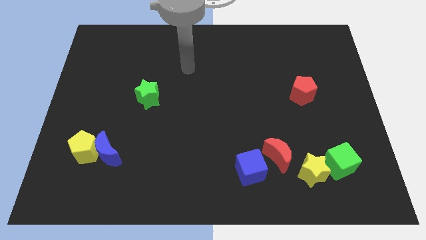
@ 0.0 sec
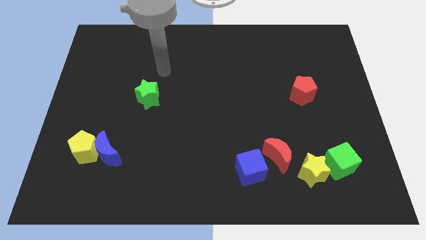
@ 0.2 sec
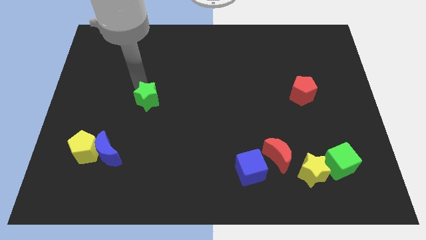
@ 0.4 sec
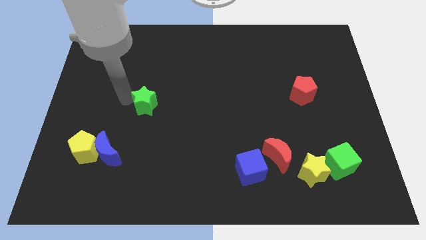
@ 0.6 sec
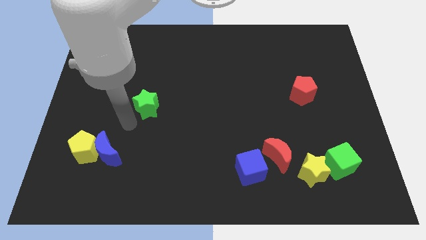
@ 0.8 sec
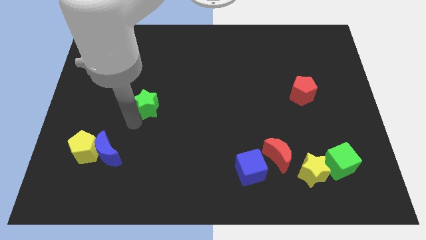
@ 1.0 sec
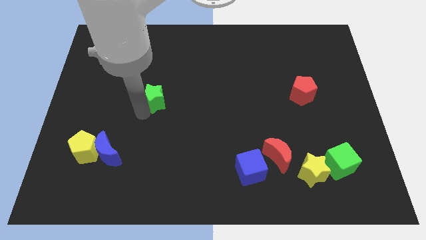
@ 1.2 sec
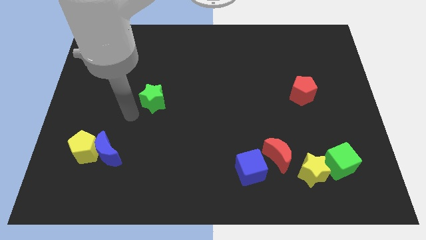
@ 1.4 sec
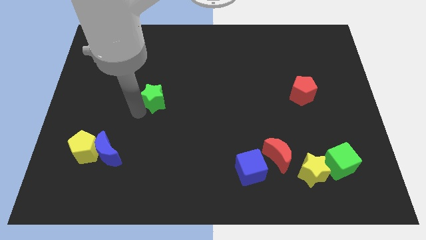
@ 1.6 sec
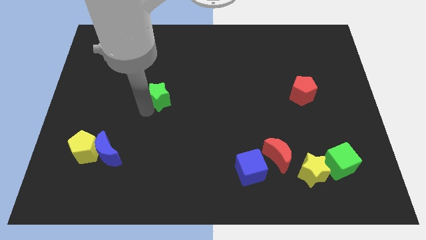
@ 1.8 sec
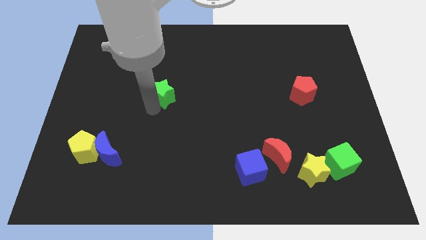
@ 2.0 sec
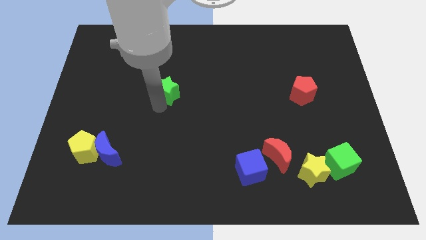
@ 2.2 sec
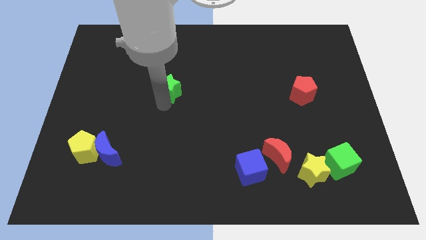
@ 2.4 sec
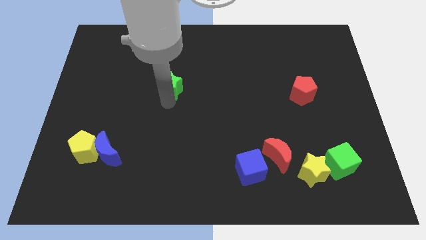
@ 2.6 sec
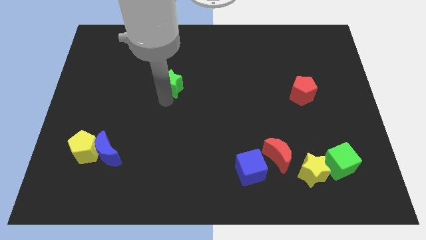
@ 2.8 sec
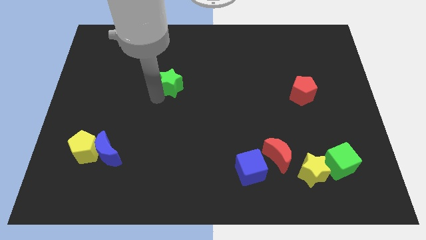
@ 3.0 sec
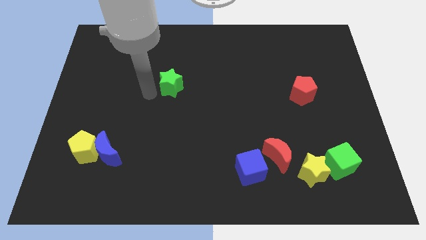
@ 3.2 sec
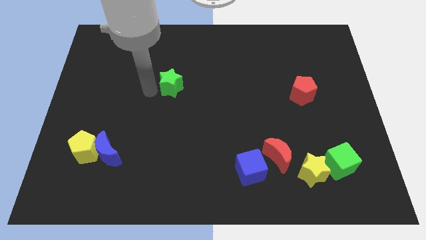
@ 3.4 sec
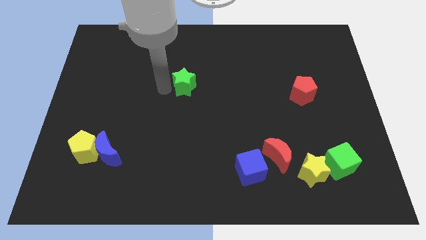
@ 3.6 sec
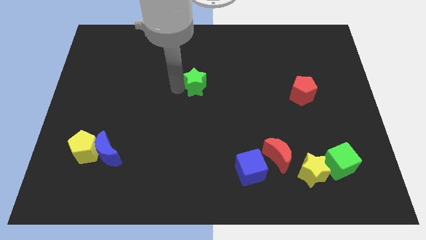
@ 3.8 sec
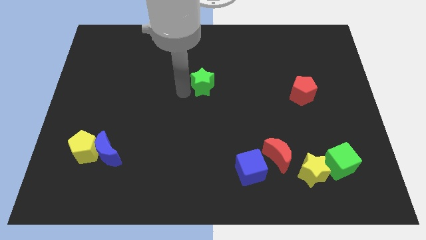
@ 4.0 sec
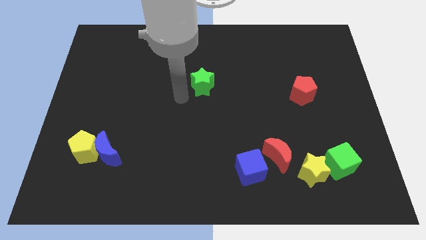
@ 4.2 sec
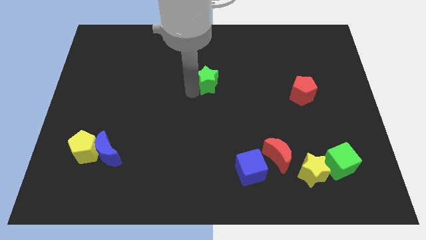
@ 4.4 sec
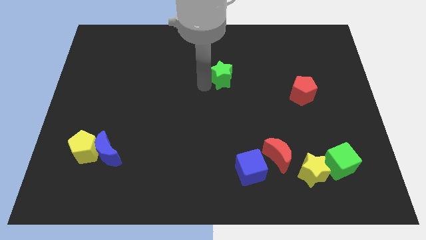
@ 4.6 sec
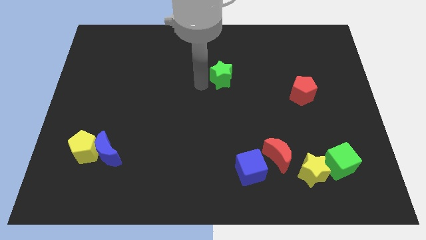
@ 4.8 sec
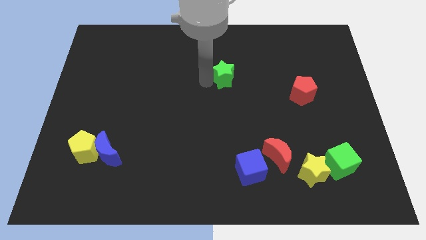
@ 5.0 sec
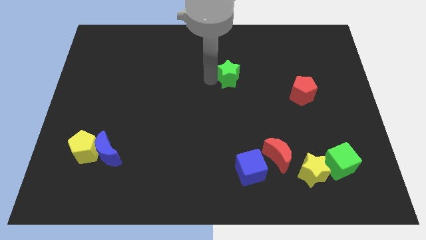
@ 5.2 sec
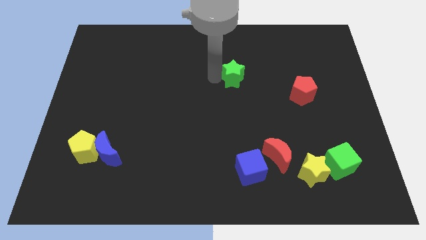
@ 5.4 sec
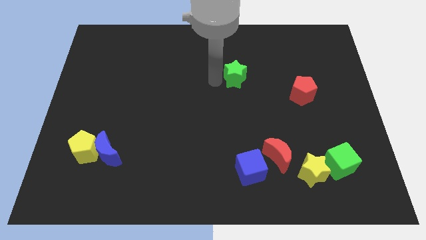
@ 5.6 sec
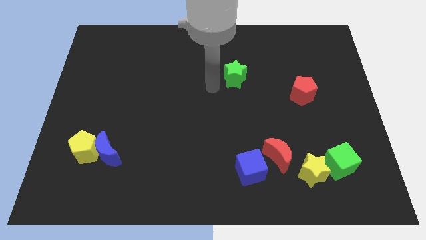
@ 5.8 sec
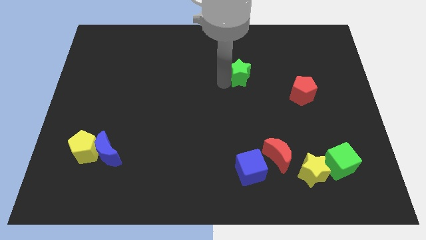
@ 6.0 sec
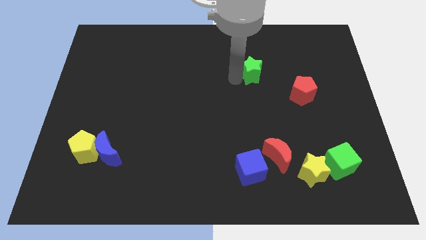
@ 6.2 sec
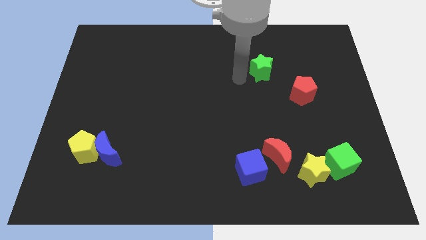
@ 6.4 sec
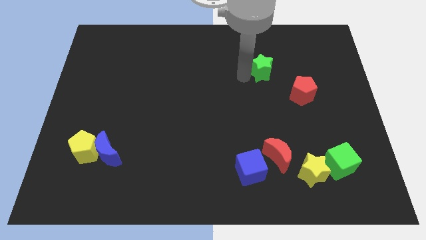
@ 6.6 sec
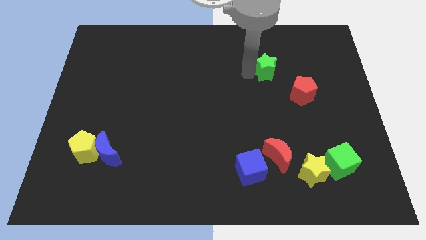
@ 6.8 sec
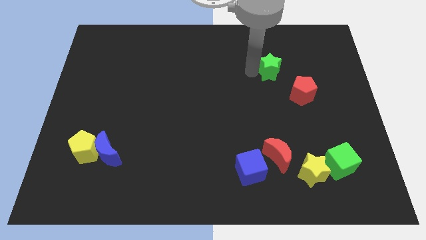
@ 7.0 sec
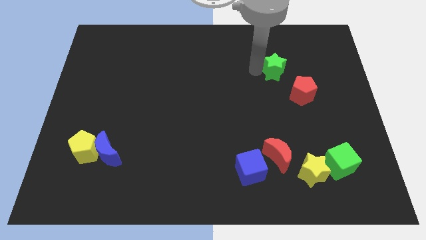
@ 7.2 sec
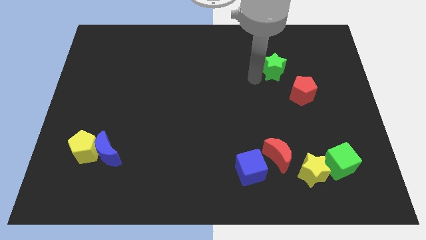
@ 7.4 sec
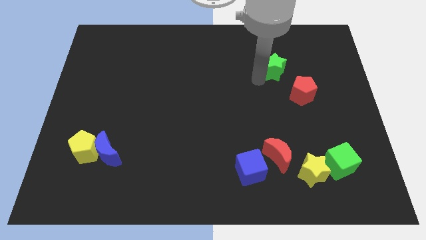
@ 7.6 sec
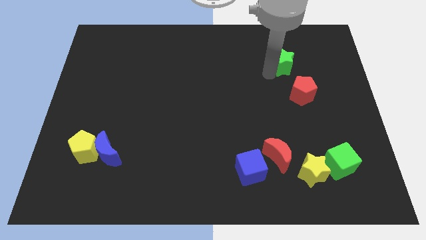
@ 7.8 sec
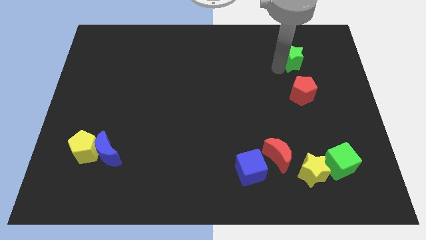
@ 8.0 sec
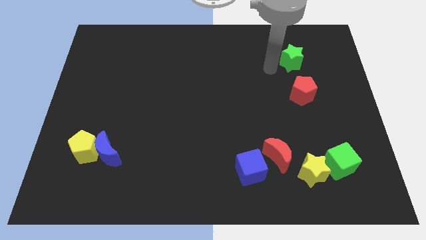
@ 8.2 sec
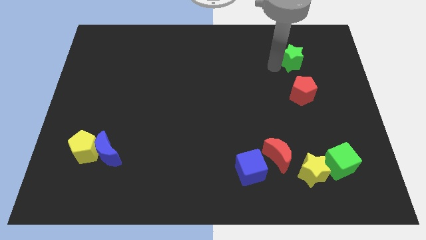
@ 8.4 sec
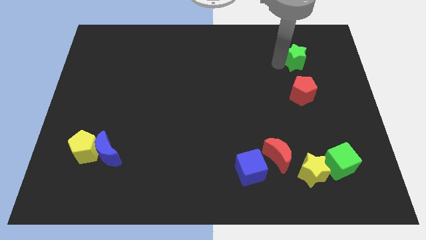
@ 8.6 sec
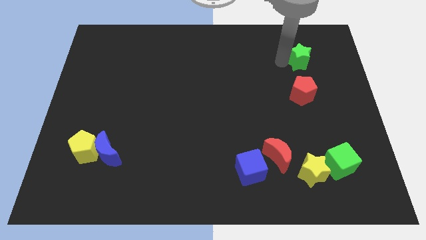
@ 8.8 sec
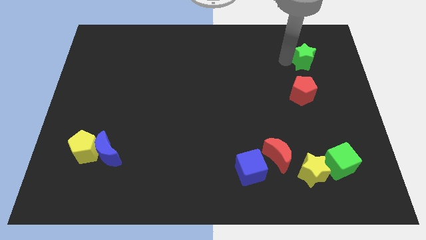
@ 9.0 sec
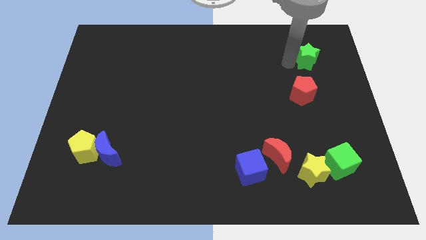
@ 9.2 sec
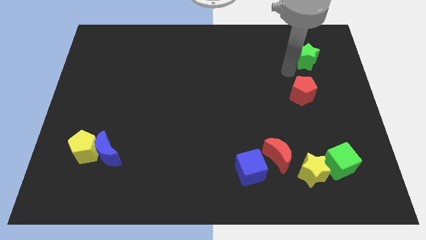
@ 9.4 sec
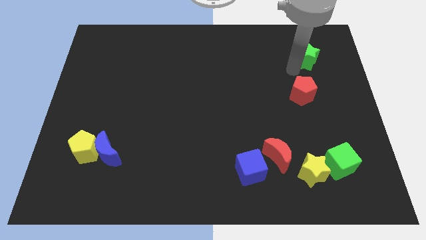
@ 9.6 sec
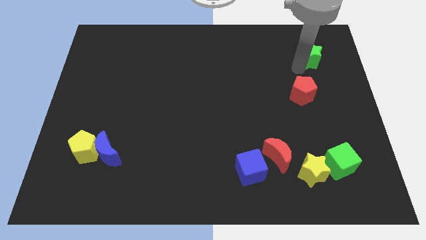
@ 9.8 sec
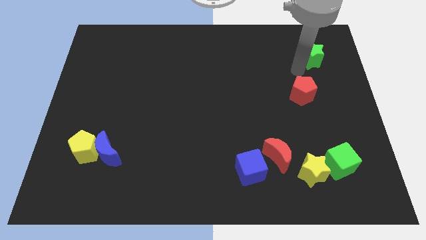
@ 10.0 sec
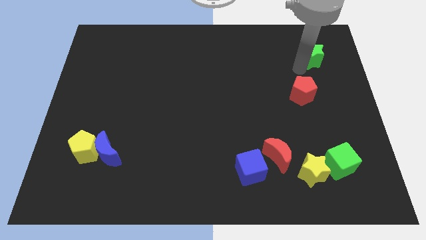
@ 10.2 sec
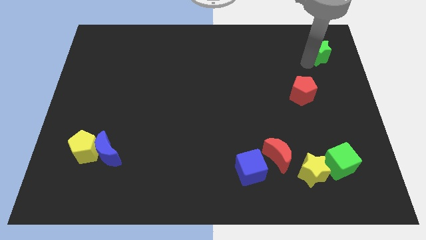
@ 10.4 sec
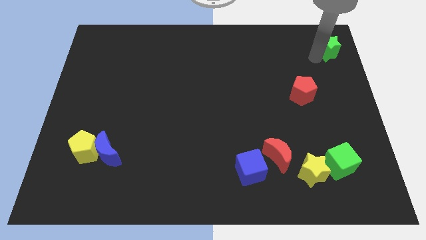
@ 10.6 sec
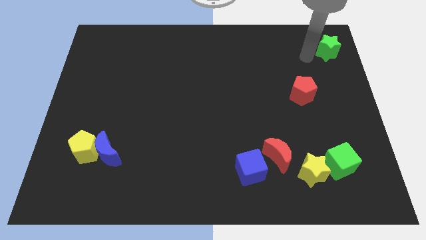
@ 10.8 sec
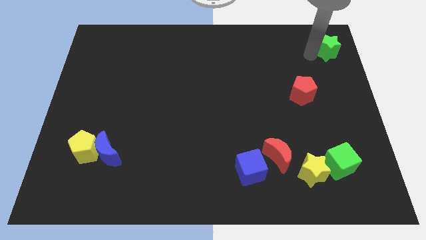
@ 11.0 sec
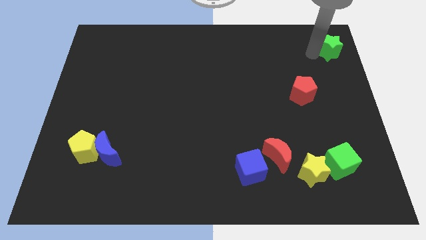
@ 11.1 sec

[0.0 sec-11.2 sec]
put the green star to the top right of the board

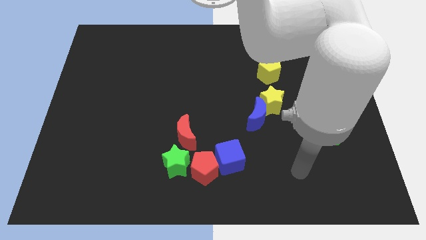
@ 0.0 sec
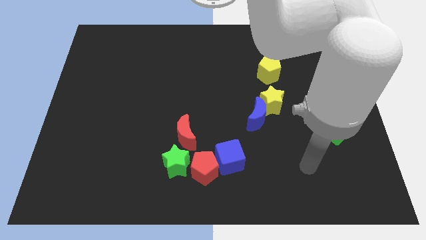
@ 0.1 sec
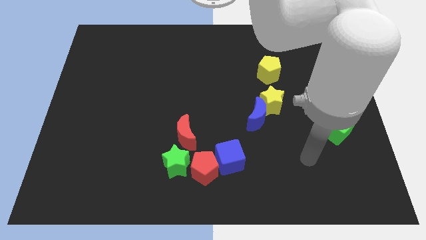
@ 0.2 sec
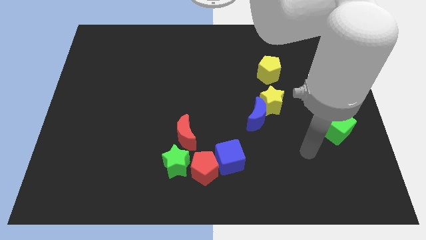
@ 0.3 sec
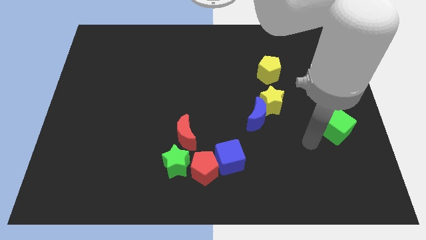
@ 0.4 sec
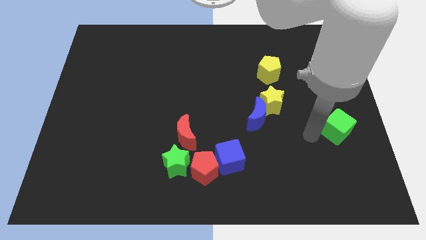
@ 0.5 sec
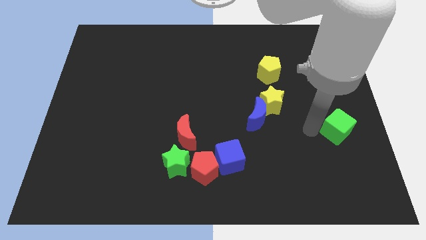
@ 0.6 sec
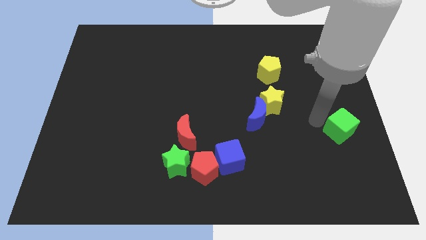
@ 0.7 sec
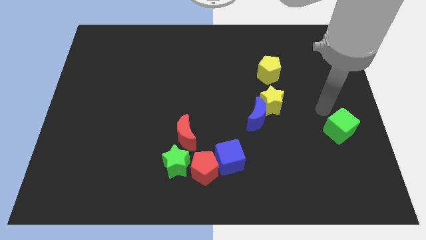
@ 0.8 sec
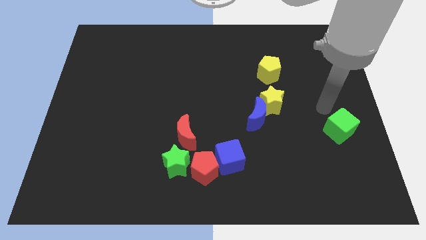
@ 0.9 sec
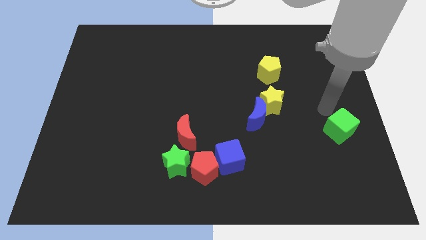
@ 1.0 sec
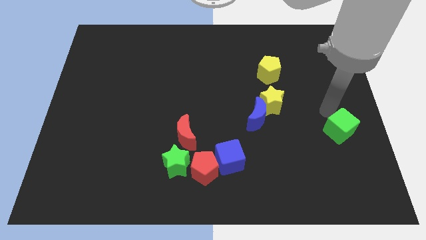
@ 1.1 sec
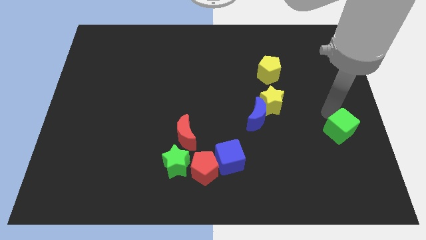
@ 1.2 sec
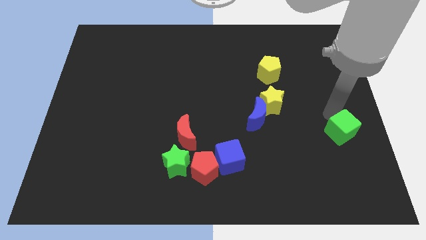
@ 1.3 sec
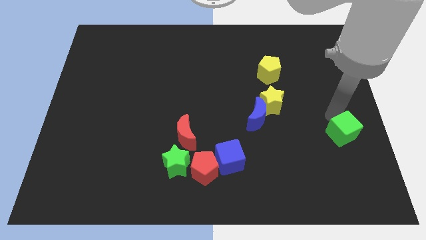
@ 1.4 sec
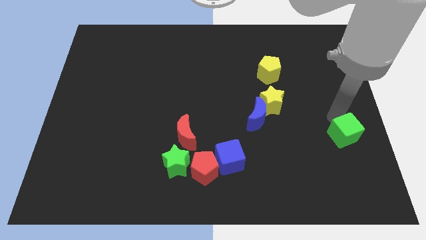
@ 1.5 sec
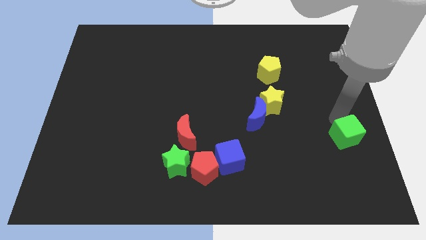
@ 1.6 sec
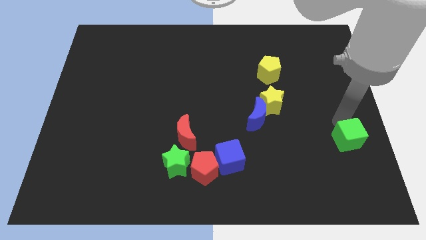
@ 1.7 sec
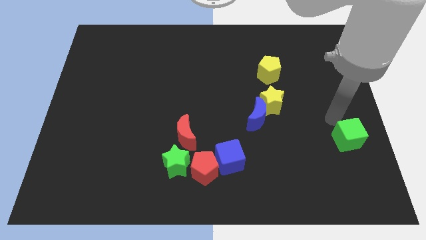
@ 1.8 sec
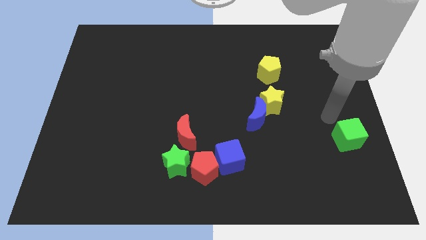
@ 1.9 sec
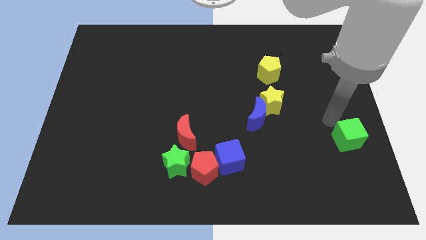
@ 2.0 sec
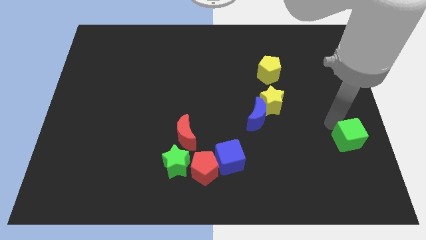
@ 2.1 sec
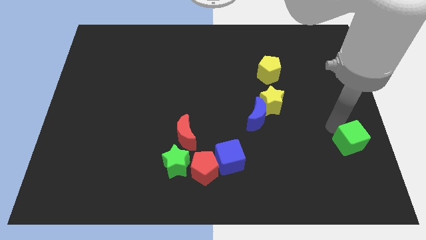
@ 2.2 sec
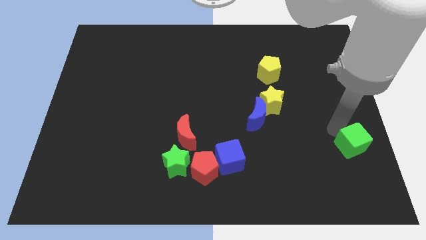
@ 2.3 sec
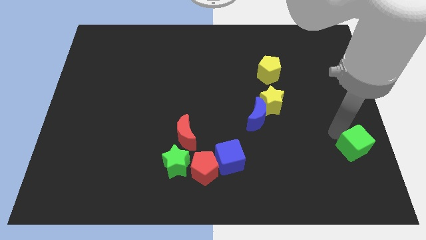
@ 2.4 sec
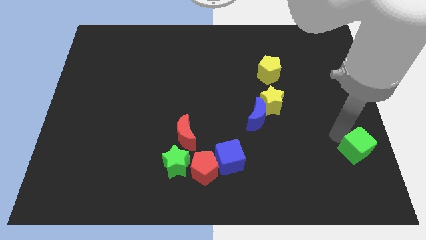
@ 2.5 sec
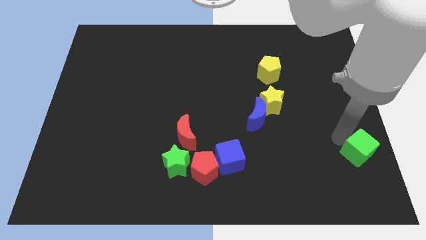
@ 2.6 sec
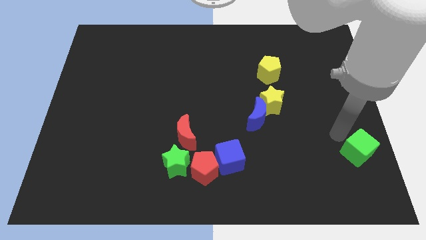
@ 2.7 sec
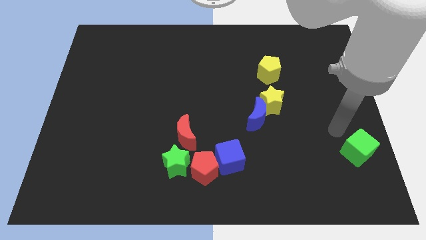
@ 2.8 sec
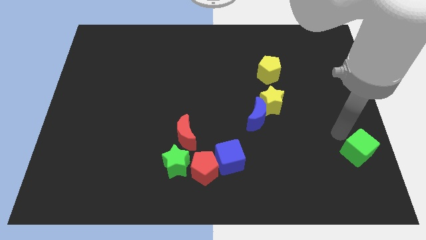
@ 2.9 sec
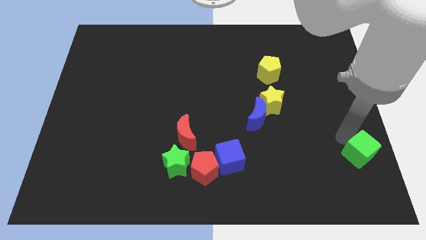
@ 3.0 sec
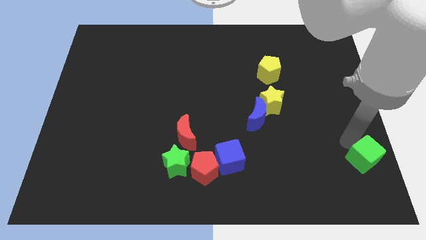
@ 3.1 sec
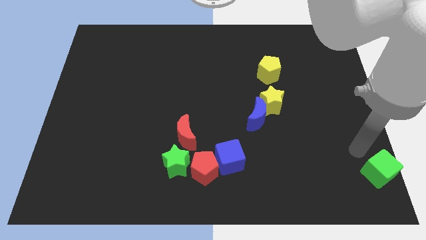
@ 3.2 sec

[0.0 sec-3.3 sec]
move the green cube to the bottom right
